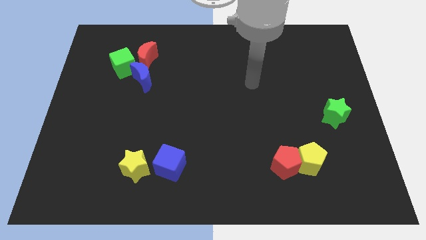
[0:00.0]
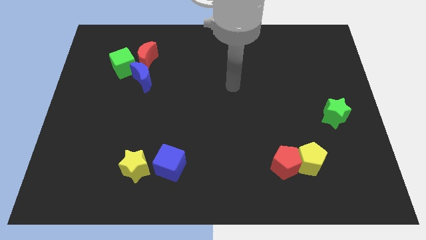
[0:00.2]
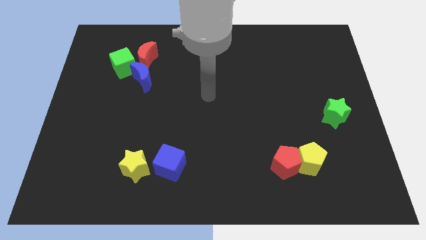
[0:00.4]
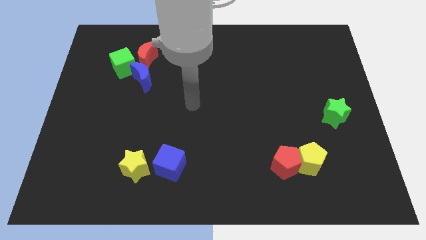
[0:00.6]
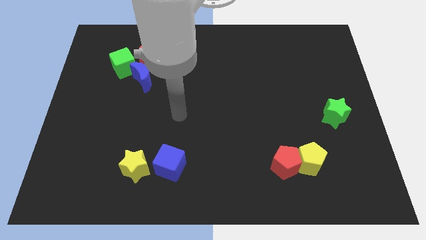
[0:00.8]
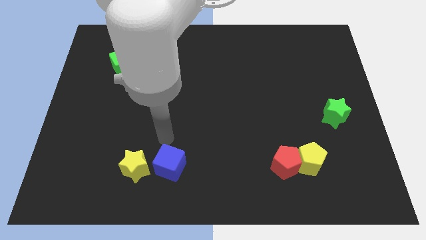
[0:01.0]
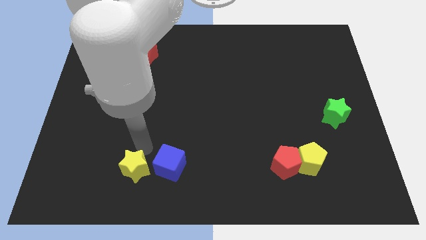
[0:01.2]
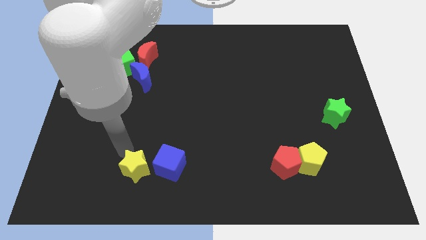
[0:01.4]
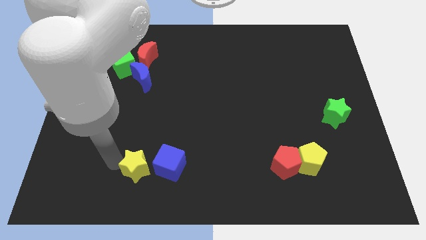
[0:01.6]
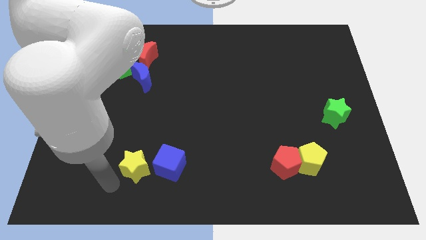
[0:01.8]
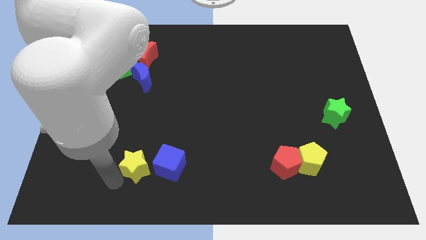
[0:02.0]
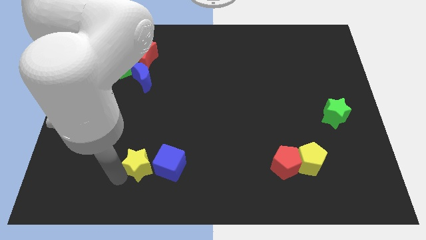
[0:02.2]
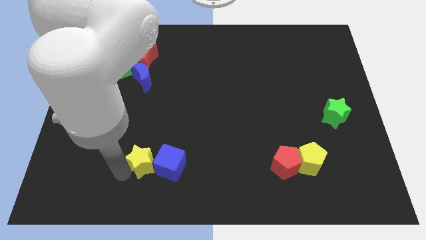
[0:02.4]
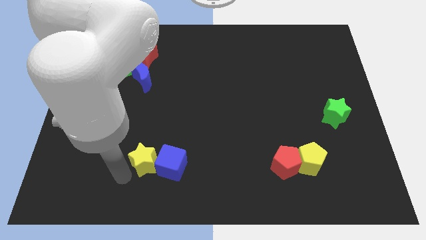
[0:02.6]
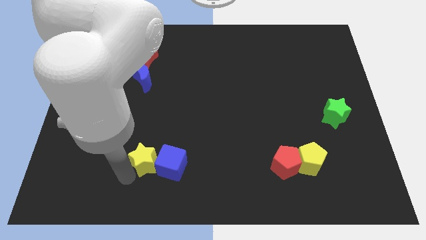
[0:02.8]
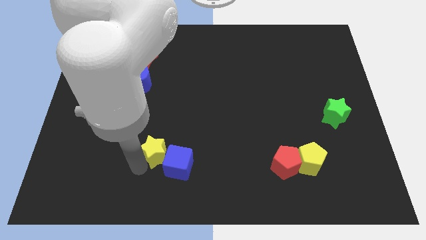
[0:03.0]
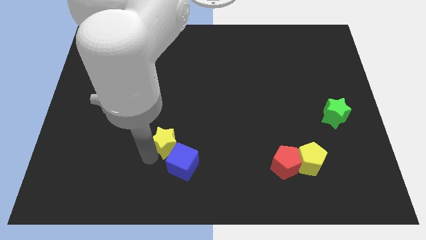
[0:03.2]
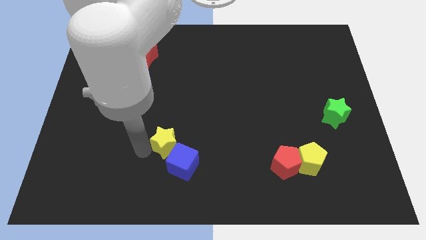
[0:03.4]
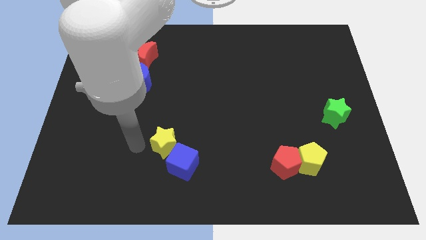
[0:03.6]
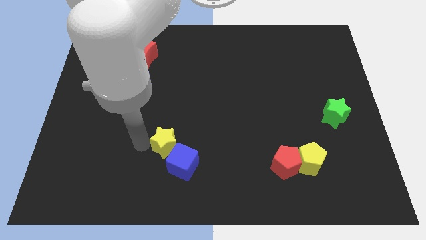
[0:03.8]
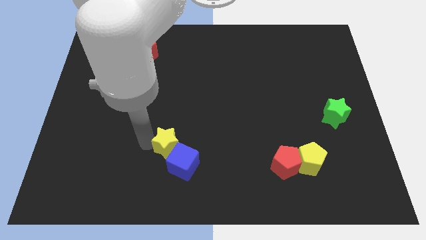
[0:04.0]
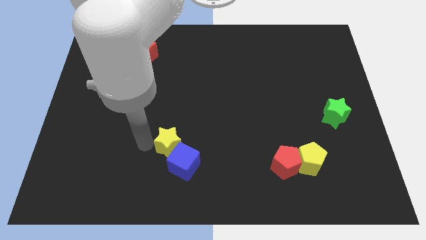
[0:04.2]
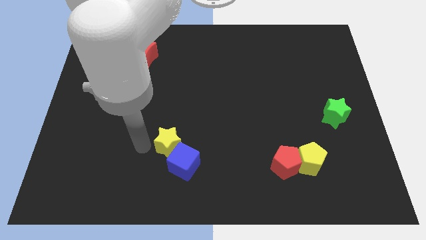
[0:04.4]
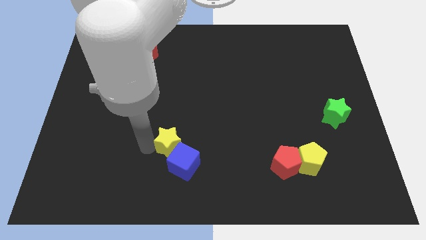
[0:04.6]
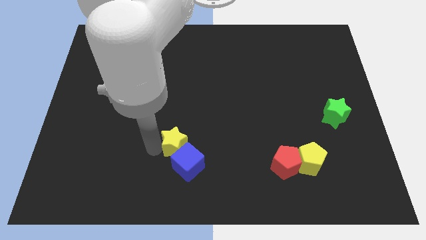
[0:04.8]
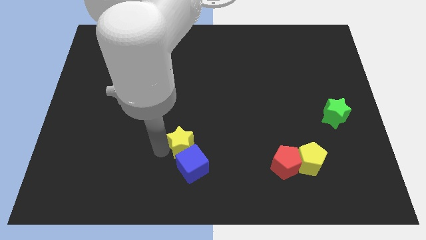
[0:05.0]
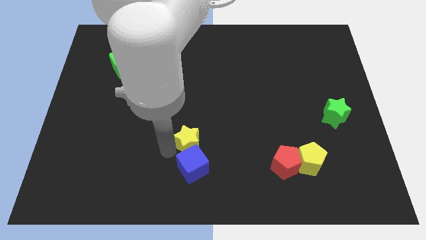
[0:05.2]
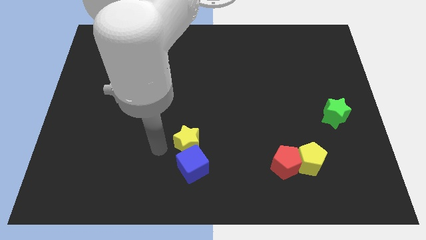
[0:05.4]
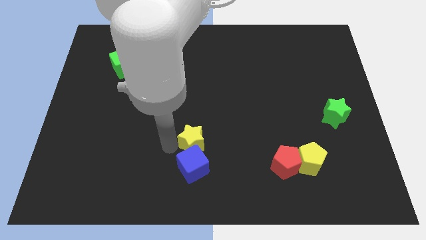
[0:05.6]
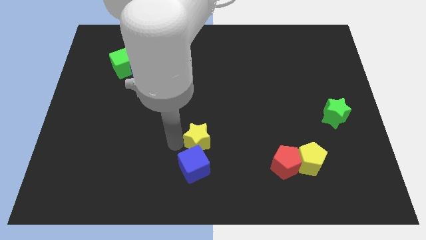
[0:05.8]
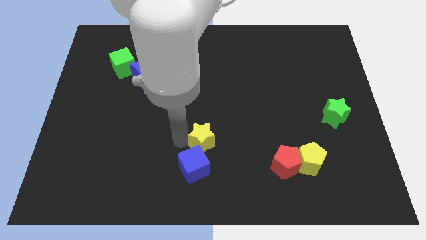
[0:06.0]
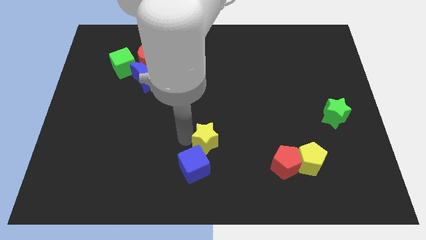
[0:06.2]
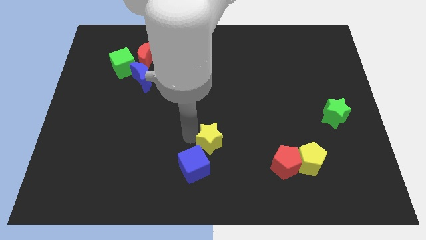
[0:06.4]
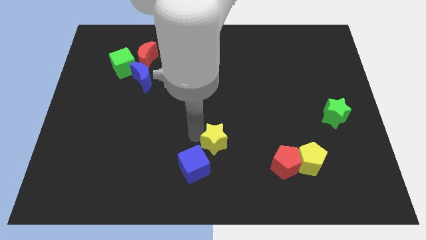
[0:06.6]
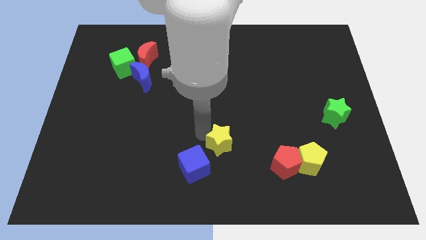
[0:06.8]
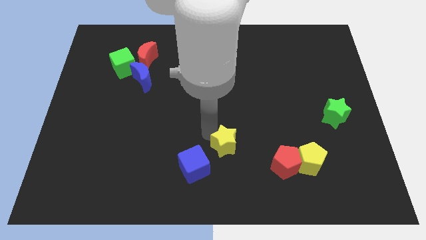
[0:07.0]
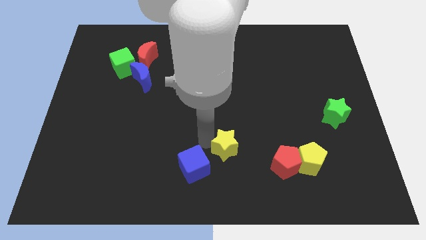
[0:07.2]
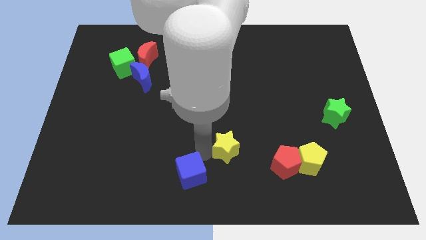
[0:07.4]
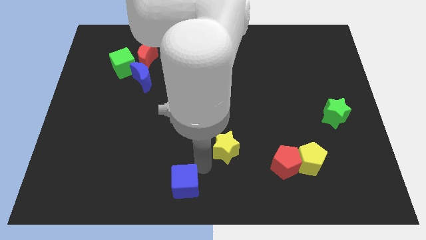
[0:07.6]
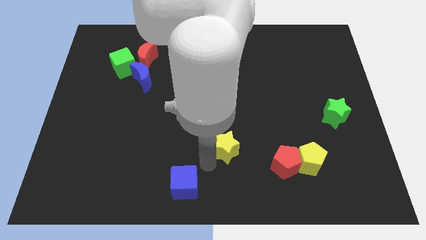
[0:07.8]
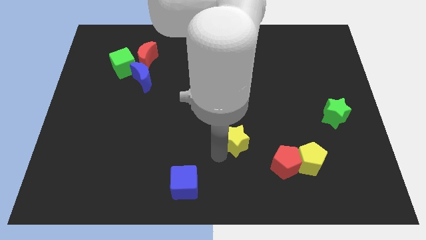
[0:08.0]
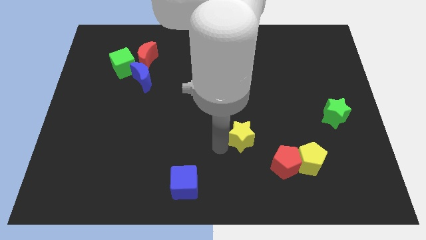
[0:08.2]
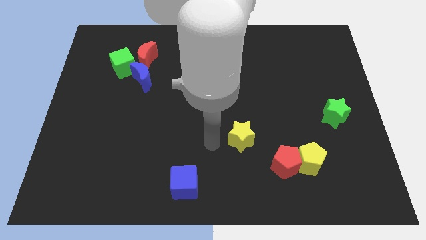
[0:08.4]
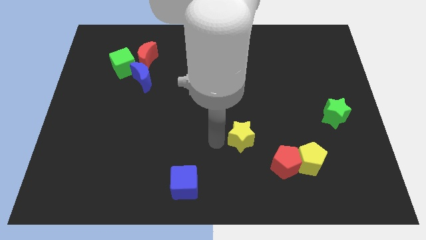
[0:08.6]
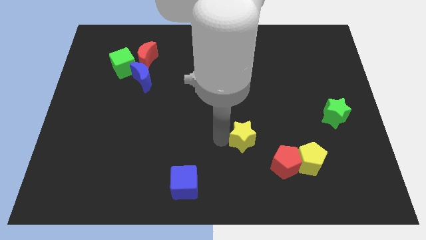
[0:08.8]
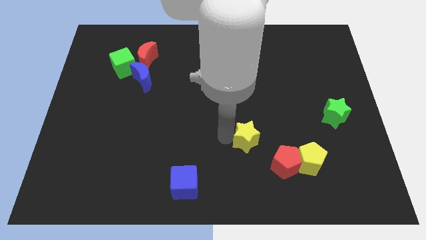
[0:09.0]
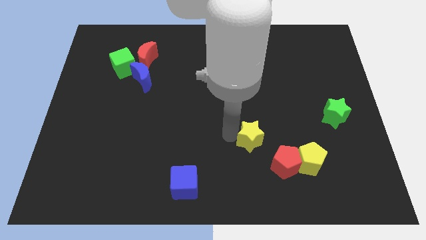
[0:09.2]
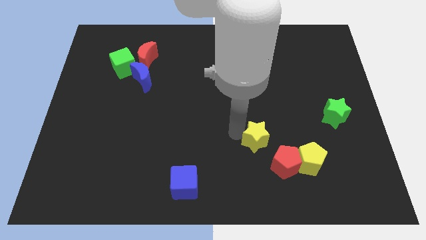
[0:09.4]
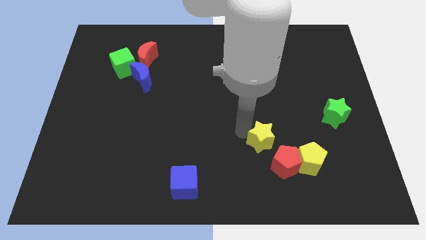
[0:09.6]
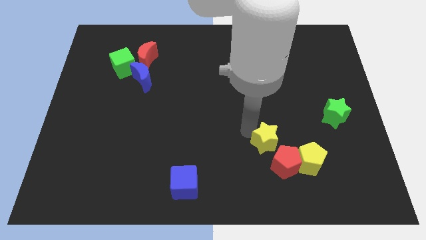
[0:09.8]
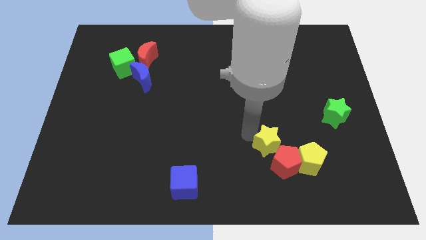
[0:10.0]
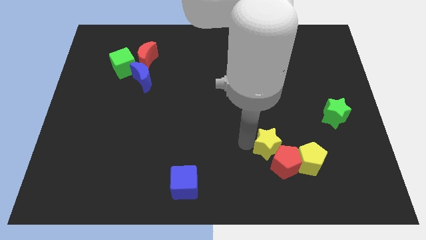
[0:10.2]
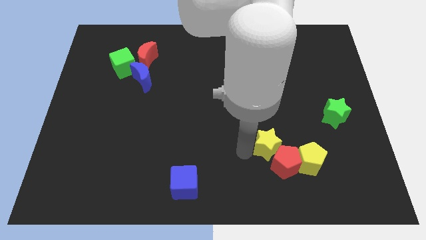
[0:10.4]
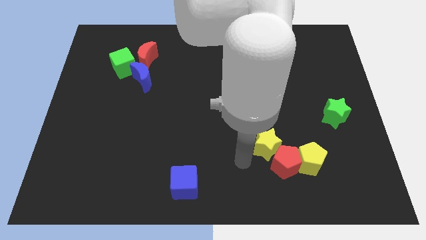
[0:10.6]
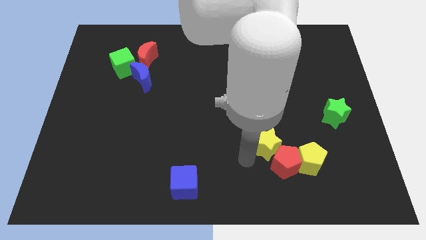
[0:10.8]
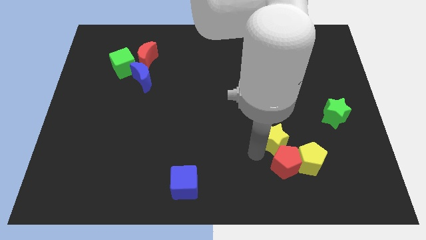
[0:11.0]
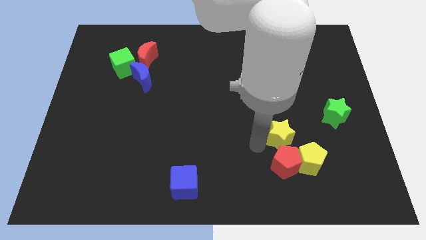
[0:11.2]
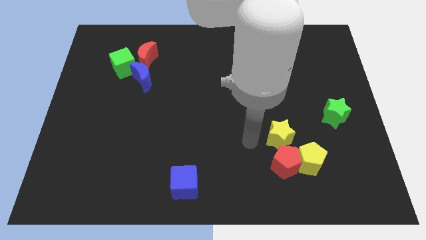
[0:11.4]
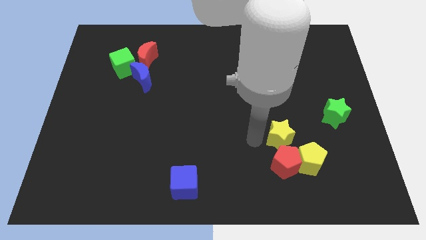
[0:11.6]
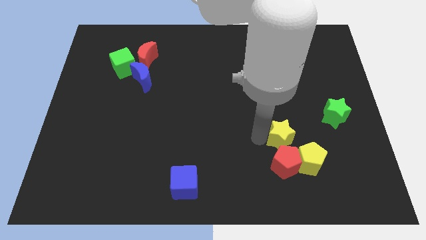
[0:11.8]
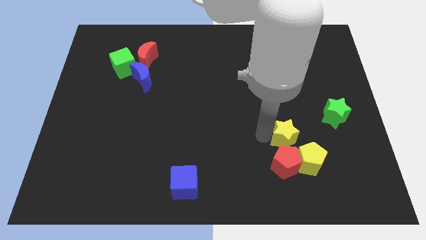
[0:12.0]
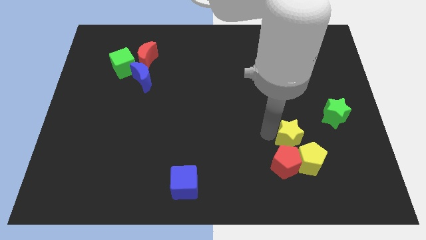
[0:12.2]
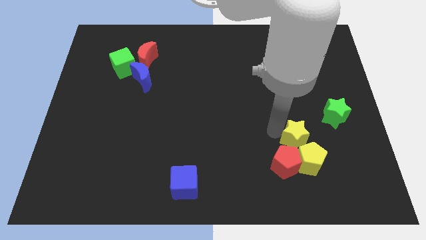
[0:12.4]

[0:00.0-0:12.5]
move the yellow star to the bottom left of the green star
